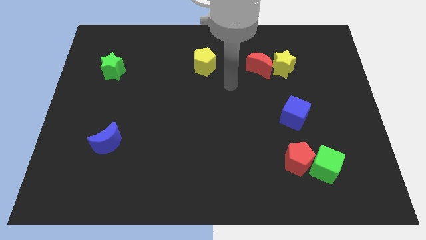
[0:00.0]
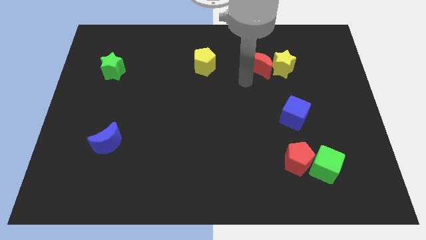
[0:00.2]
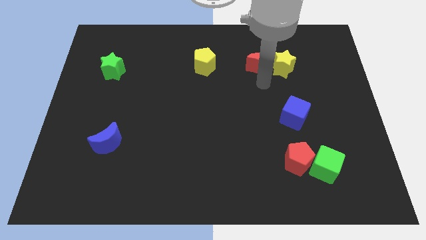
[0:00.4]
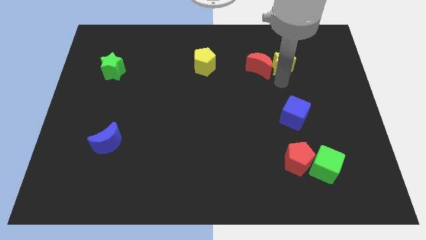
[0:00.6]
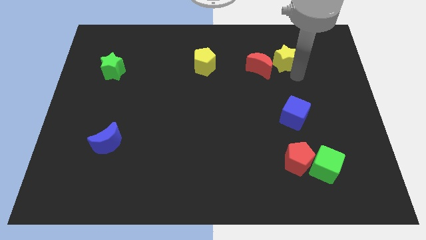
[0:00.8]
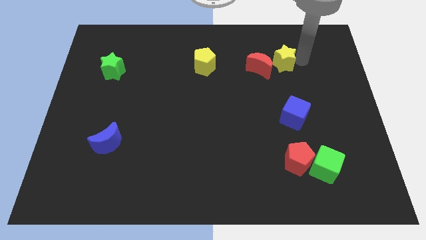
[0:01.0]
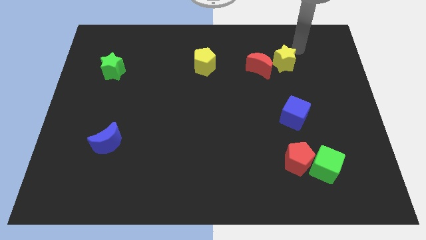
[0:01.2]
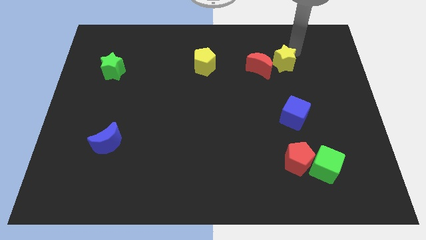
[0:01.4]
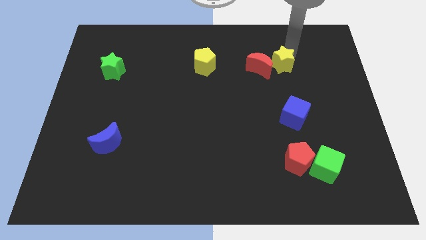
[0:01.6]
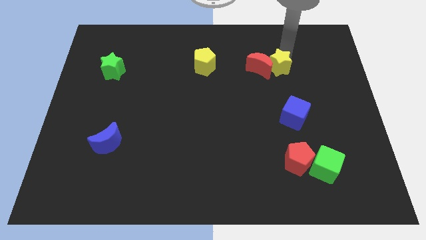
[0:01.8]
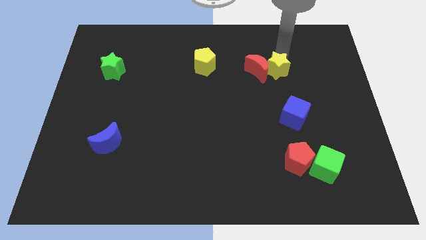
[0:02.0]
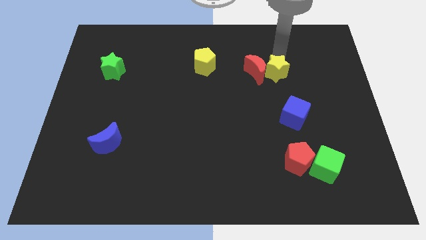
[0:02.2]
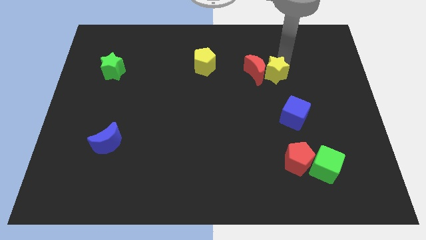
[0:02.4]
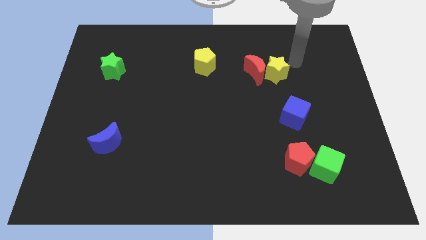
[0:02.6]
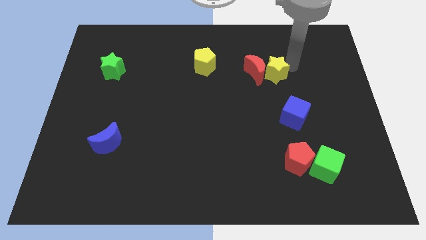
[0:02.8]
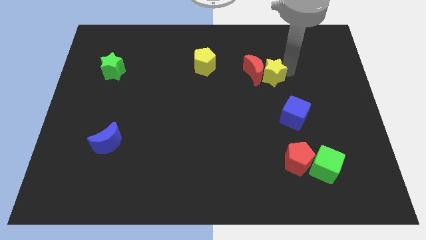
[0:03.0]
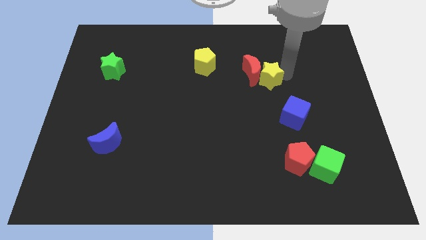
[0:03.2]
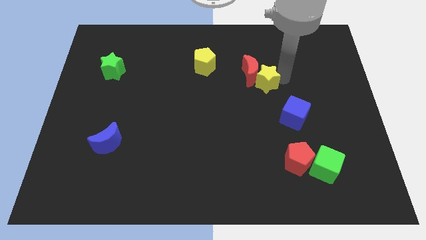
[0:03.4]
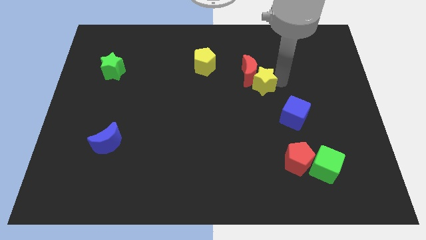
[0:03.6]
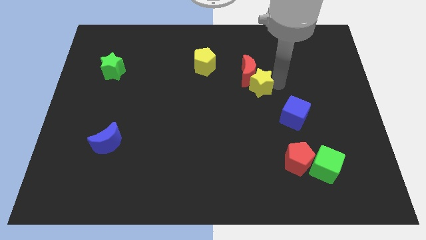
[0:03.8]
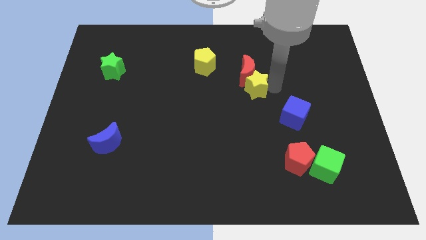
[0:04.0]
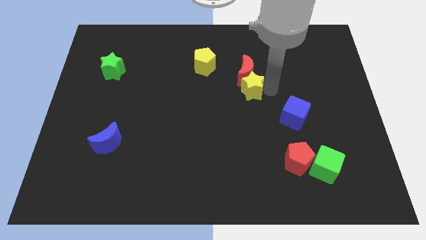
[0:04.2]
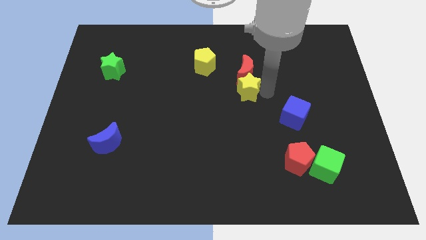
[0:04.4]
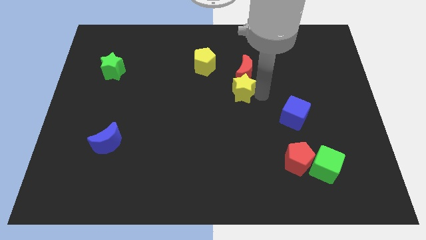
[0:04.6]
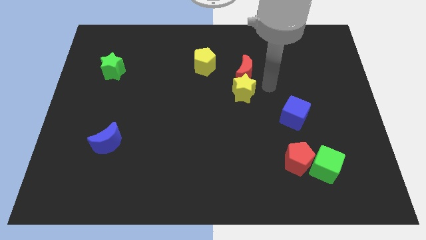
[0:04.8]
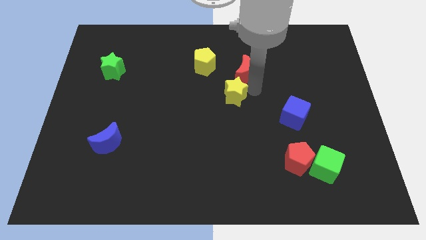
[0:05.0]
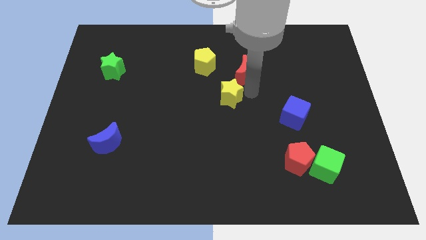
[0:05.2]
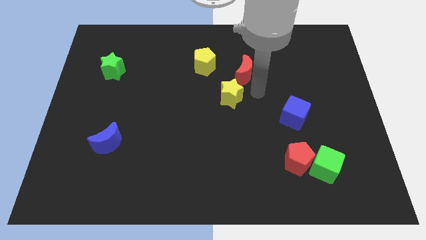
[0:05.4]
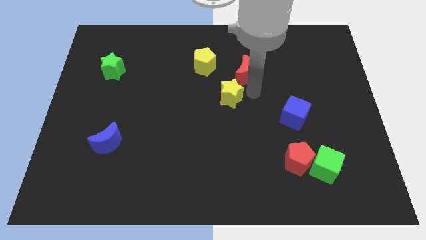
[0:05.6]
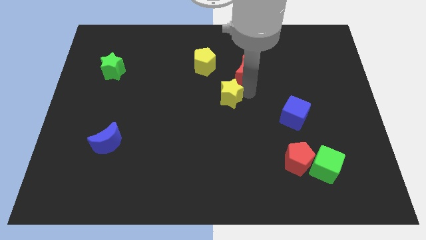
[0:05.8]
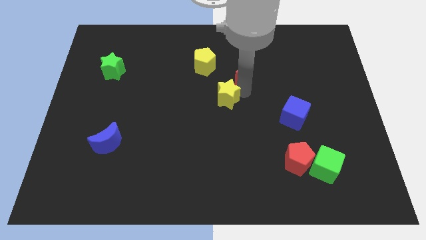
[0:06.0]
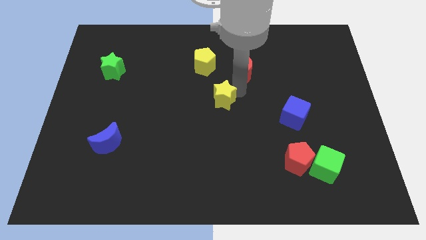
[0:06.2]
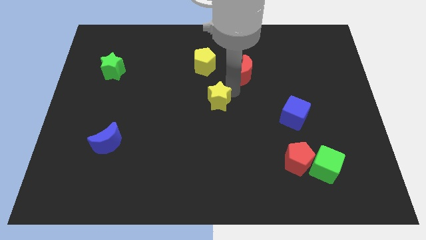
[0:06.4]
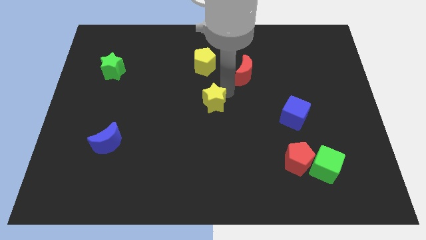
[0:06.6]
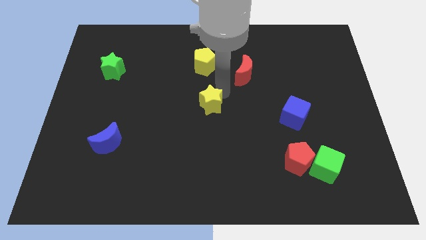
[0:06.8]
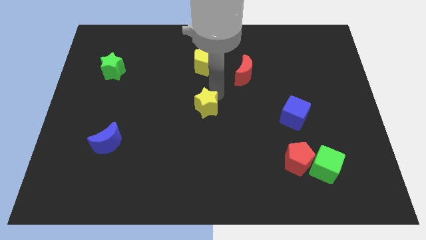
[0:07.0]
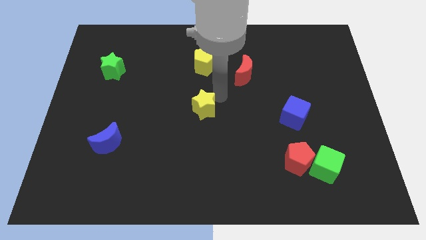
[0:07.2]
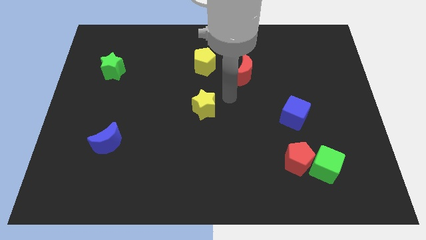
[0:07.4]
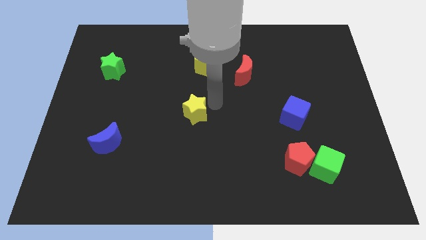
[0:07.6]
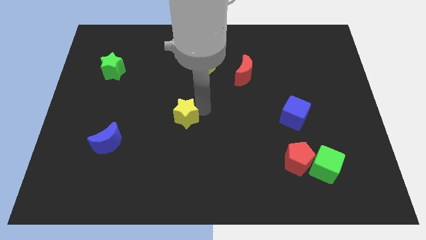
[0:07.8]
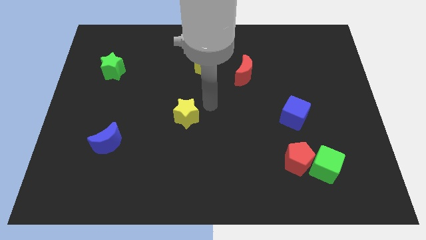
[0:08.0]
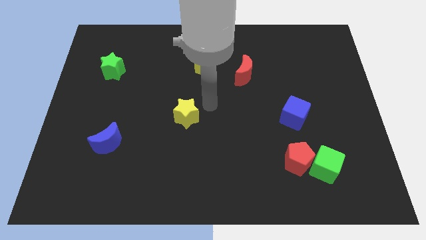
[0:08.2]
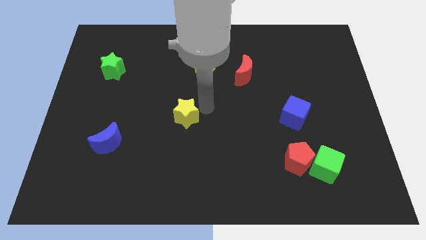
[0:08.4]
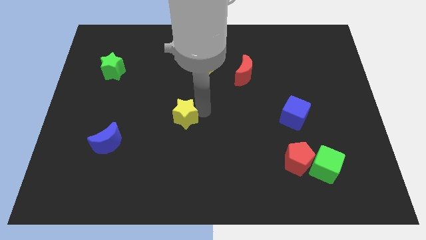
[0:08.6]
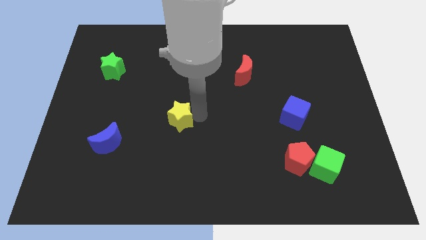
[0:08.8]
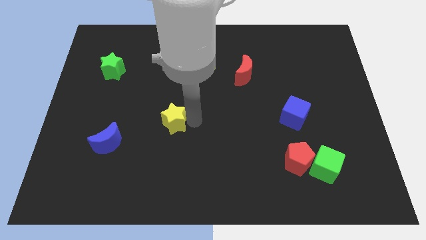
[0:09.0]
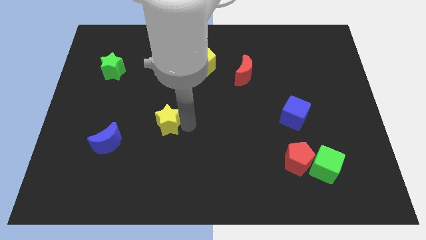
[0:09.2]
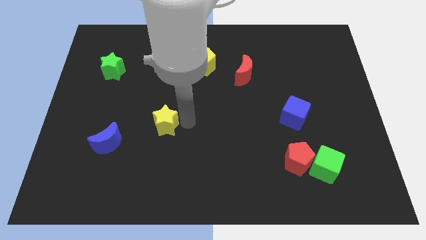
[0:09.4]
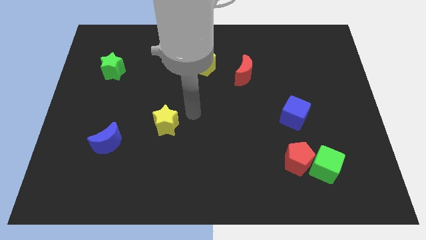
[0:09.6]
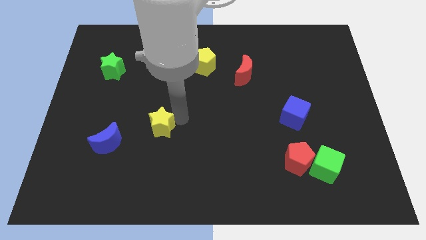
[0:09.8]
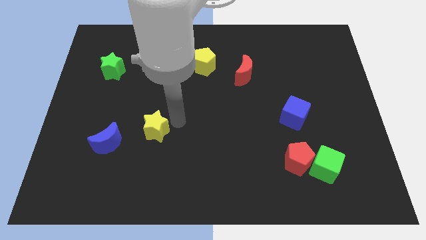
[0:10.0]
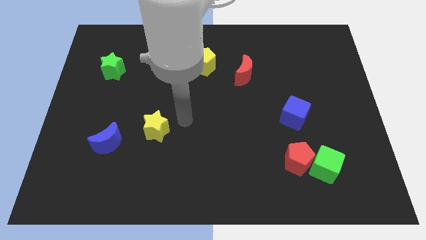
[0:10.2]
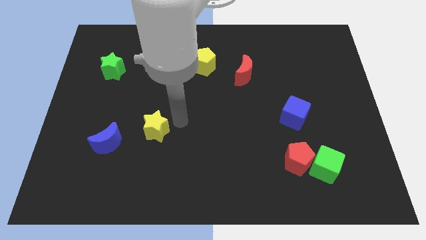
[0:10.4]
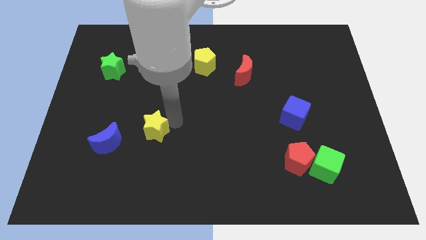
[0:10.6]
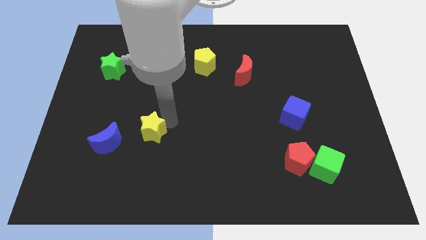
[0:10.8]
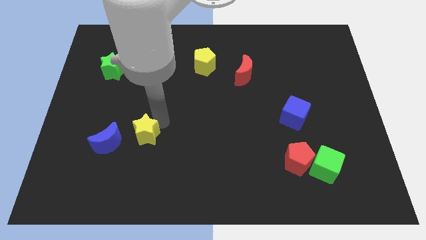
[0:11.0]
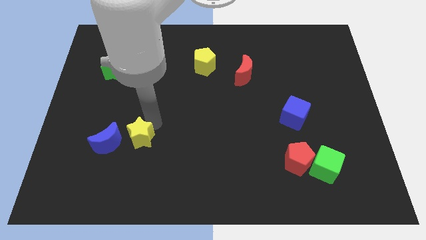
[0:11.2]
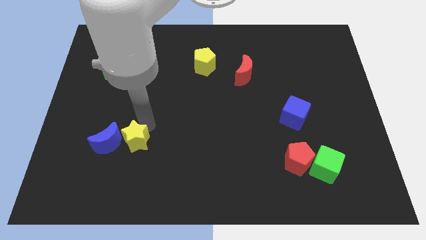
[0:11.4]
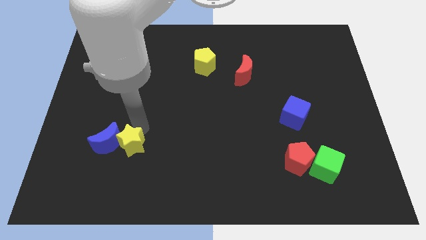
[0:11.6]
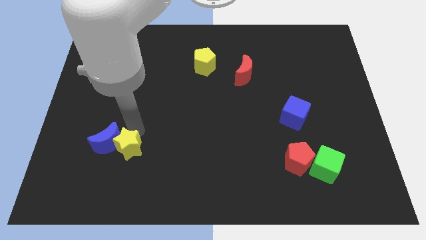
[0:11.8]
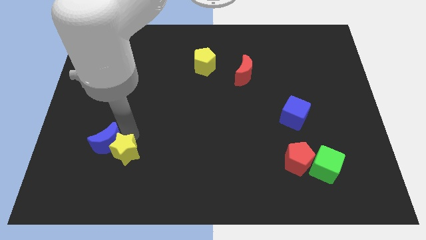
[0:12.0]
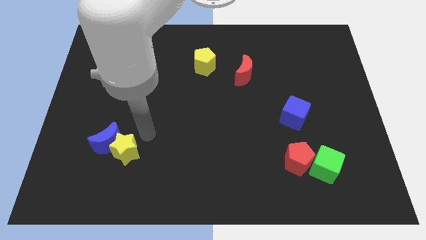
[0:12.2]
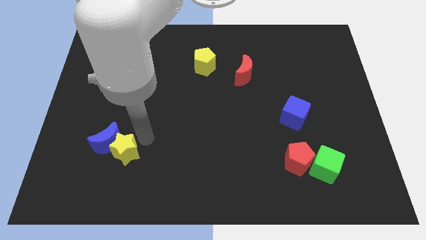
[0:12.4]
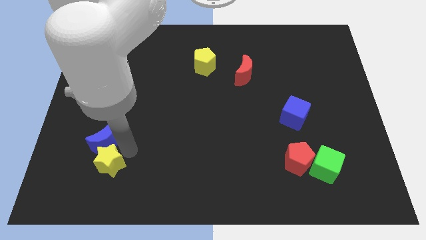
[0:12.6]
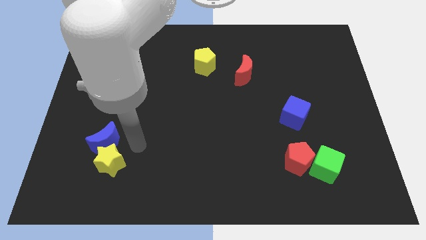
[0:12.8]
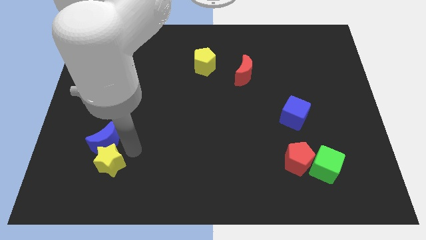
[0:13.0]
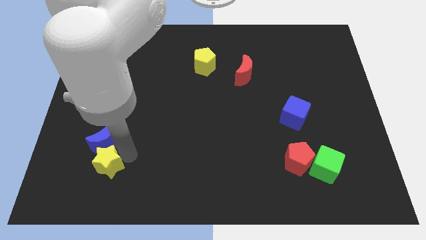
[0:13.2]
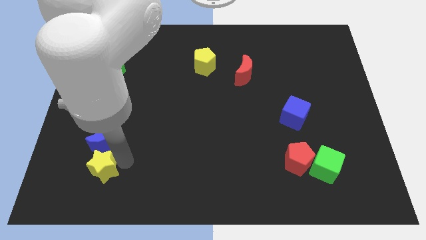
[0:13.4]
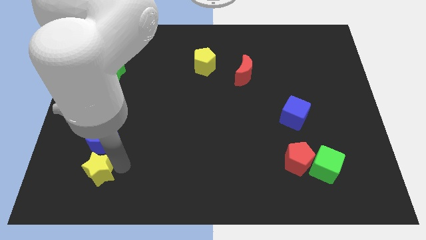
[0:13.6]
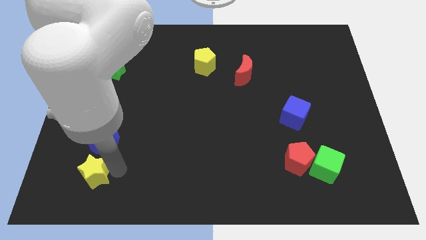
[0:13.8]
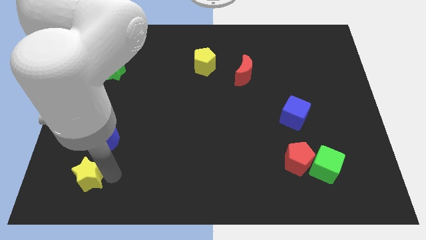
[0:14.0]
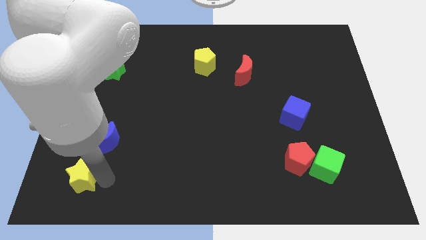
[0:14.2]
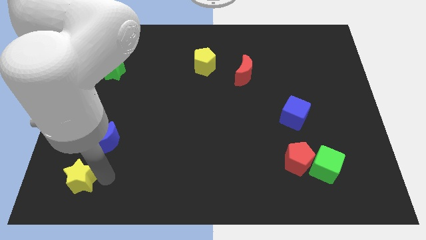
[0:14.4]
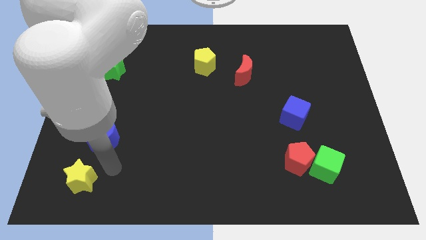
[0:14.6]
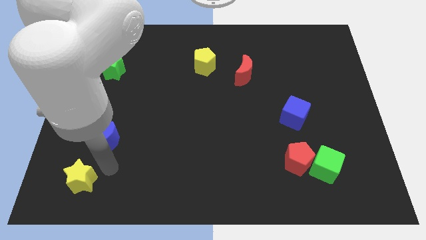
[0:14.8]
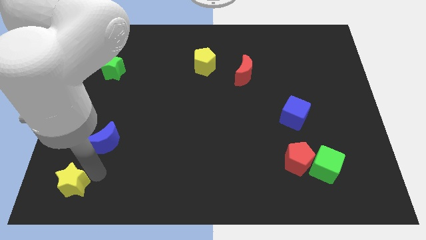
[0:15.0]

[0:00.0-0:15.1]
slide the yellow star to the bottom left corner
